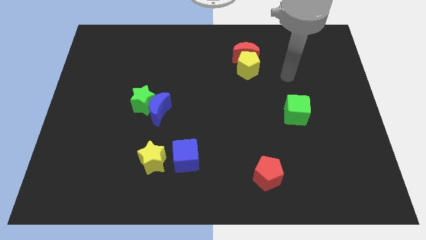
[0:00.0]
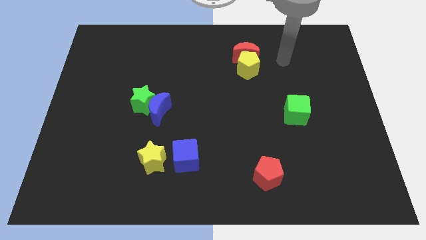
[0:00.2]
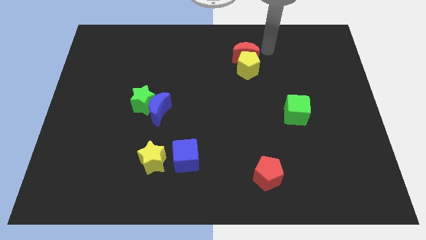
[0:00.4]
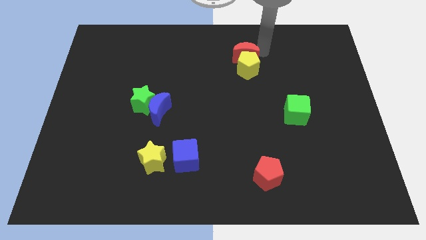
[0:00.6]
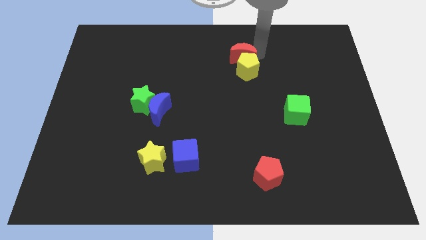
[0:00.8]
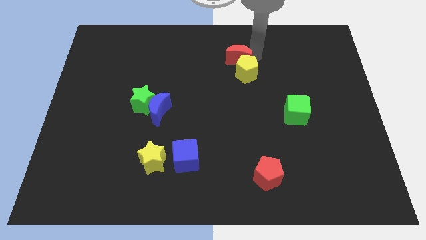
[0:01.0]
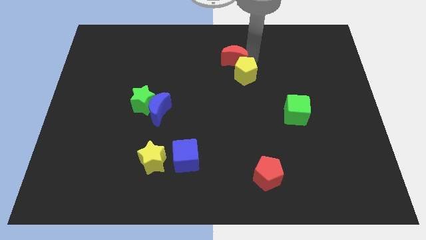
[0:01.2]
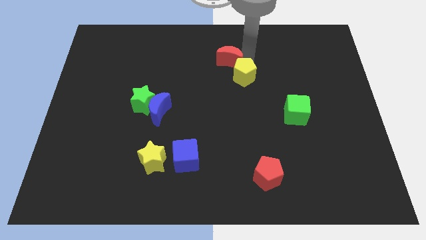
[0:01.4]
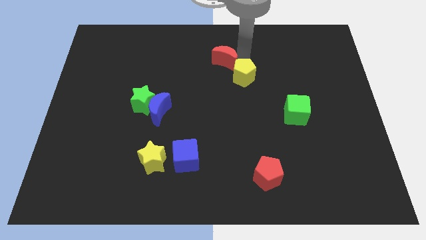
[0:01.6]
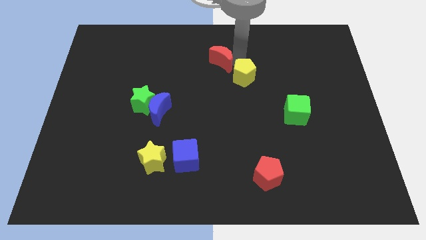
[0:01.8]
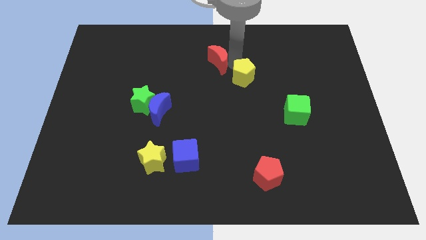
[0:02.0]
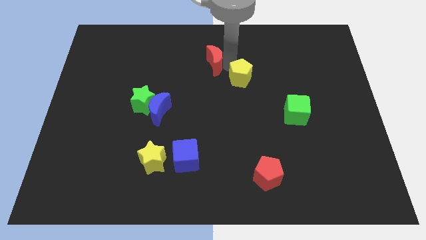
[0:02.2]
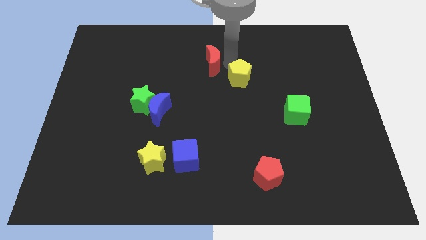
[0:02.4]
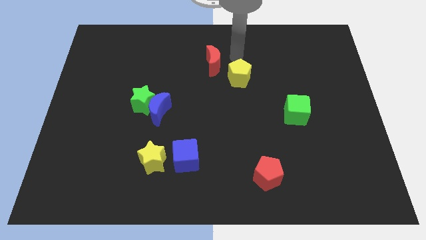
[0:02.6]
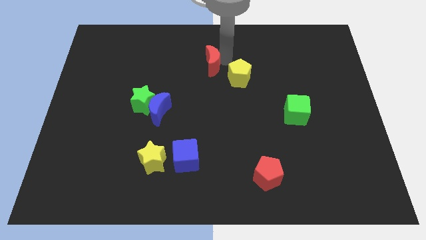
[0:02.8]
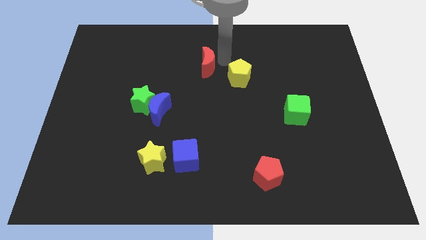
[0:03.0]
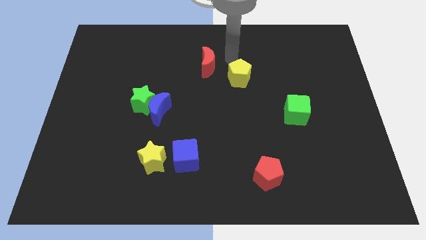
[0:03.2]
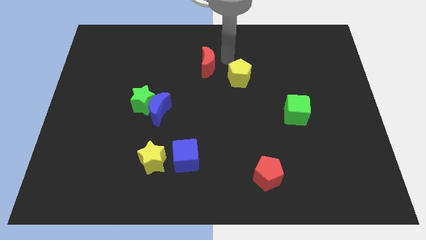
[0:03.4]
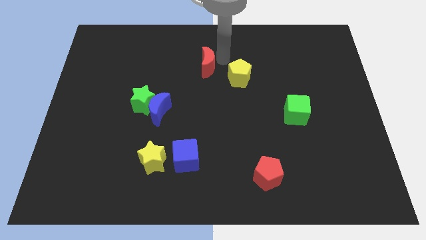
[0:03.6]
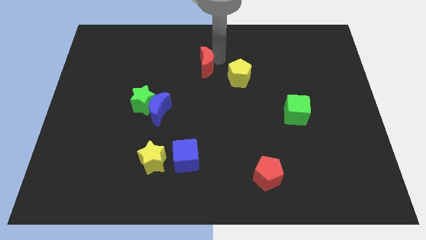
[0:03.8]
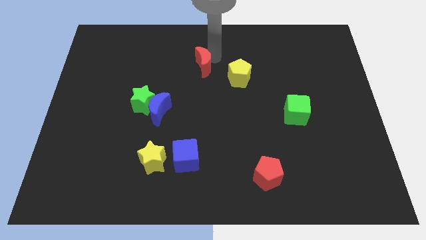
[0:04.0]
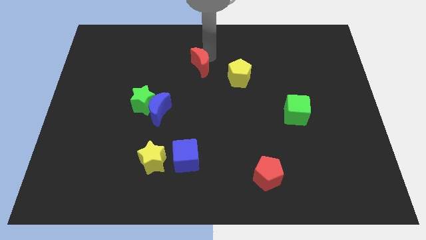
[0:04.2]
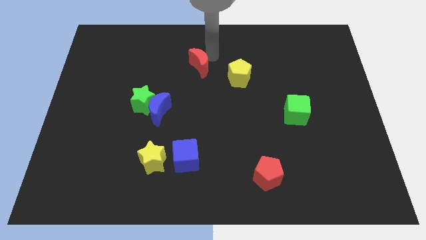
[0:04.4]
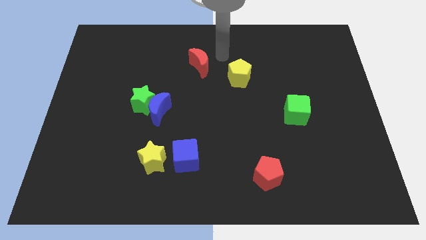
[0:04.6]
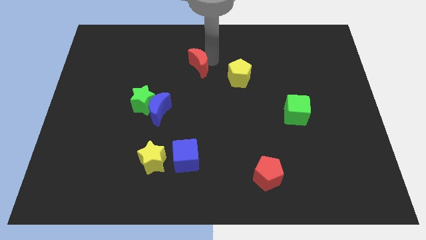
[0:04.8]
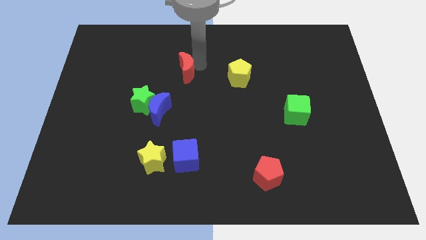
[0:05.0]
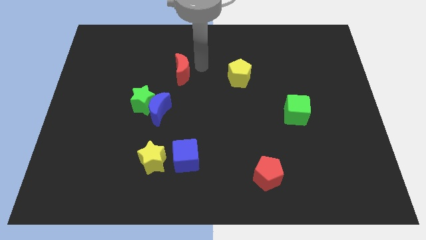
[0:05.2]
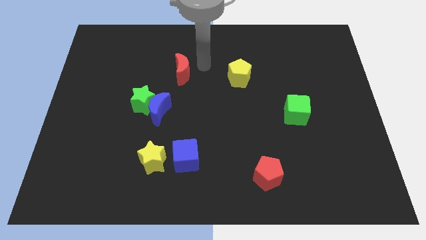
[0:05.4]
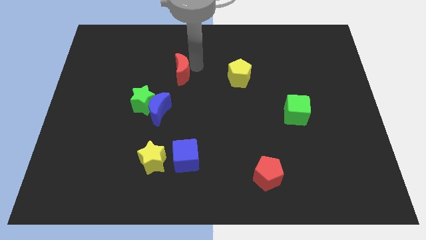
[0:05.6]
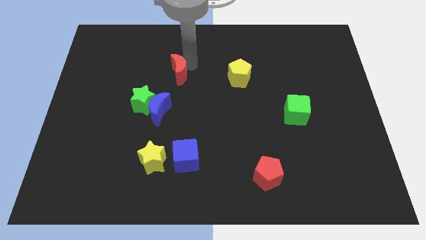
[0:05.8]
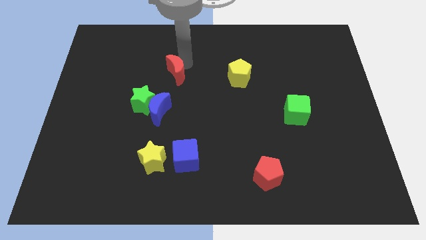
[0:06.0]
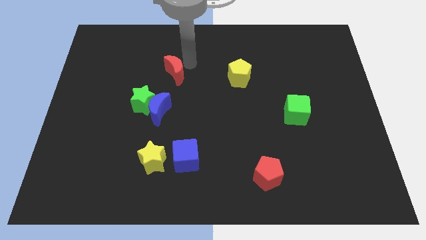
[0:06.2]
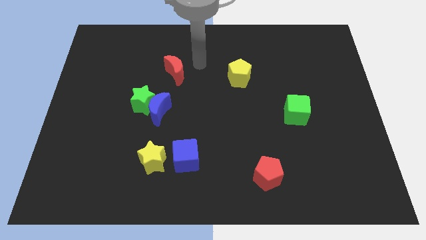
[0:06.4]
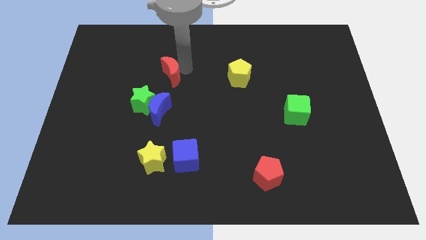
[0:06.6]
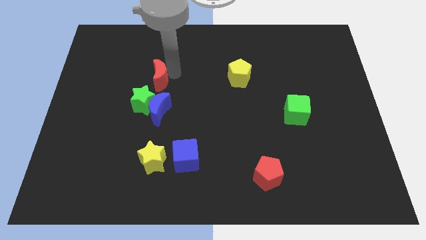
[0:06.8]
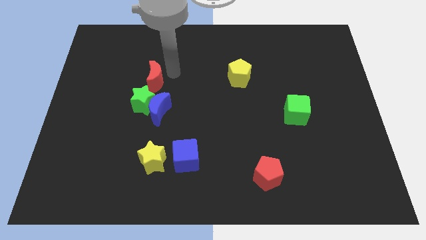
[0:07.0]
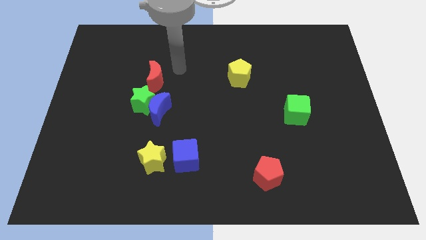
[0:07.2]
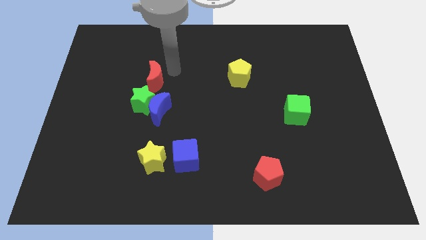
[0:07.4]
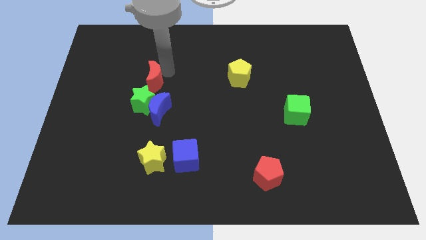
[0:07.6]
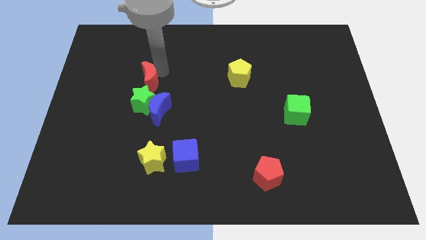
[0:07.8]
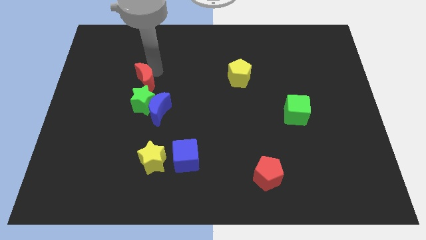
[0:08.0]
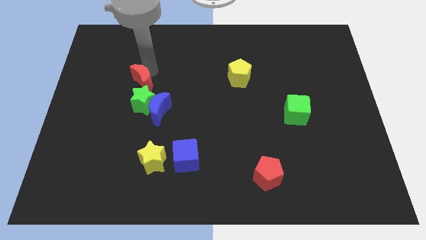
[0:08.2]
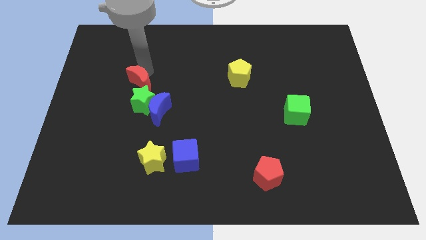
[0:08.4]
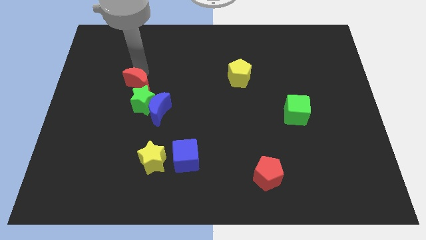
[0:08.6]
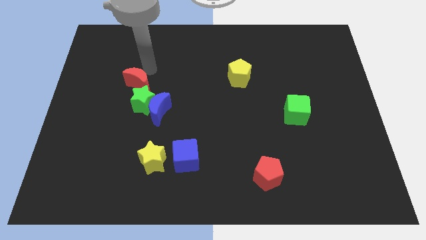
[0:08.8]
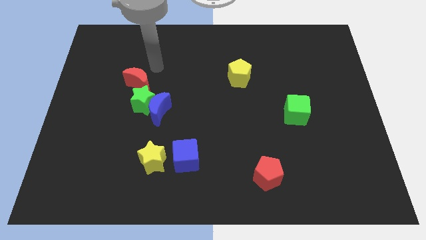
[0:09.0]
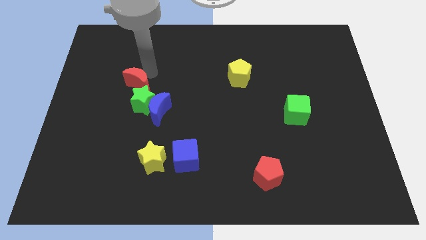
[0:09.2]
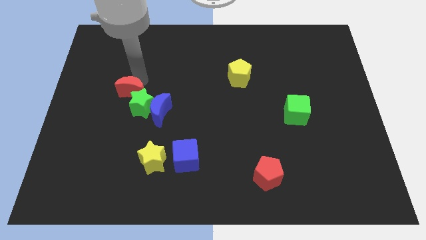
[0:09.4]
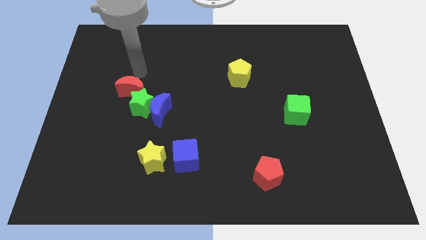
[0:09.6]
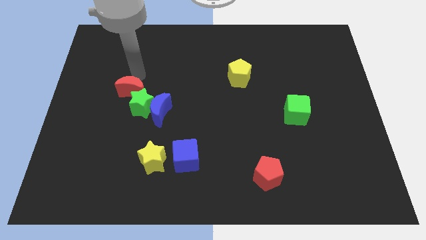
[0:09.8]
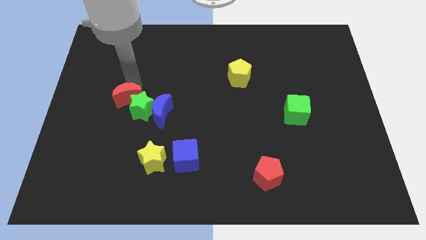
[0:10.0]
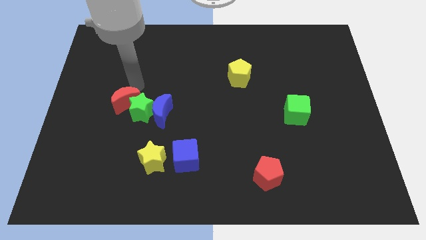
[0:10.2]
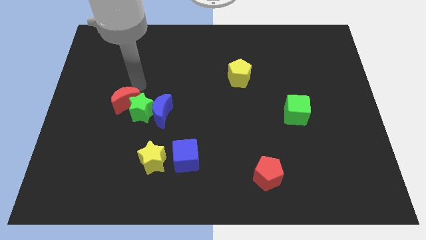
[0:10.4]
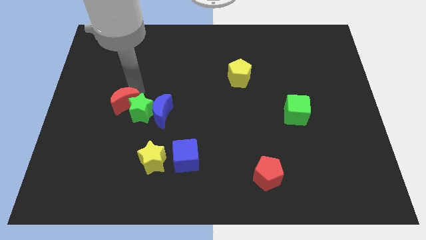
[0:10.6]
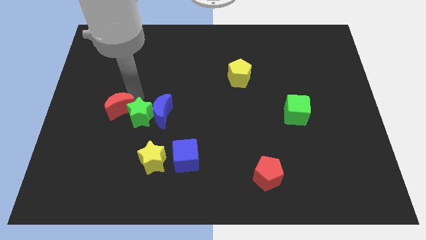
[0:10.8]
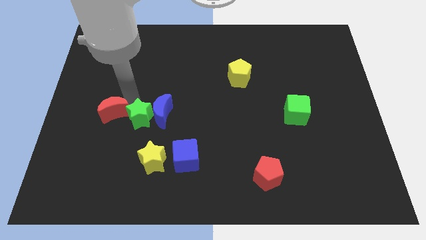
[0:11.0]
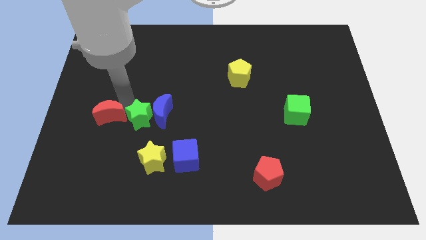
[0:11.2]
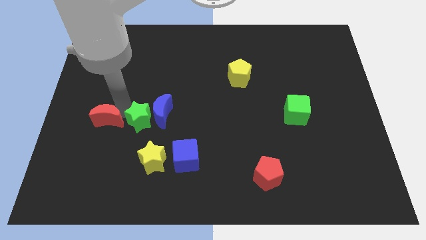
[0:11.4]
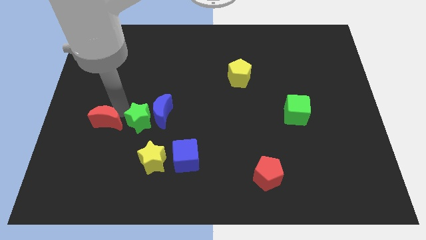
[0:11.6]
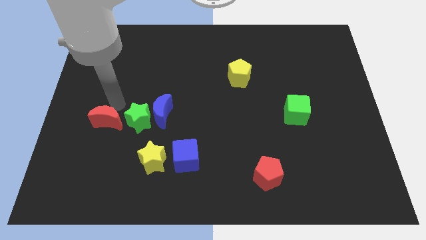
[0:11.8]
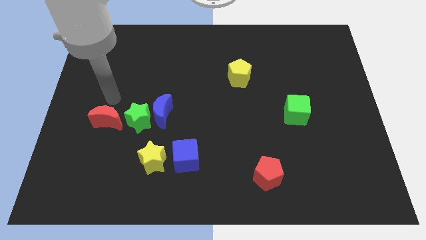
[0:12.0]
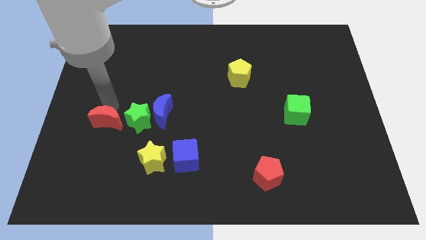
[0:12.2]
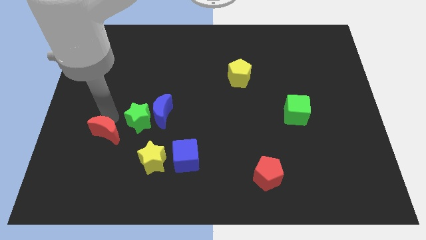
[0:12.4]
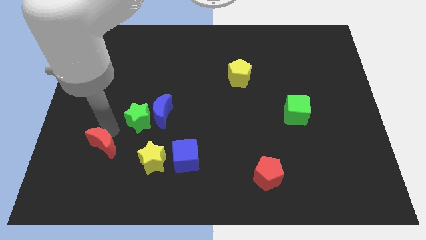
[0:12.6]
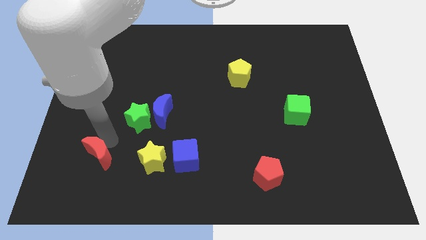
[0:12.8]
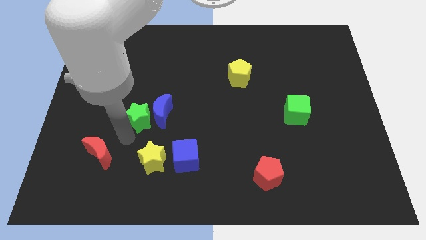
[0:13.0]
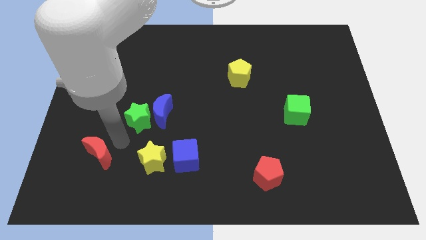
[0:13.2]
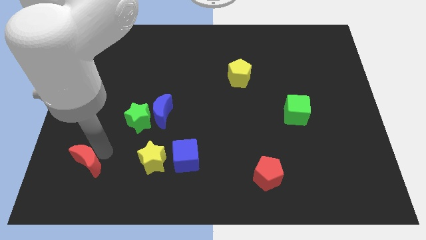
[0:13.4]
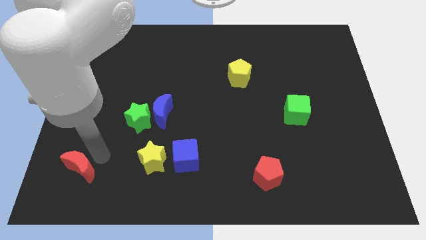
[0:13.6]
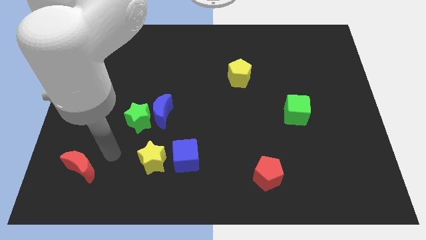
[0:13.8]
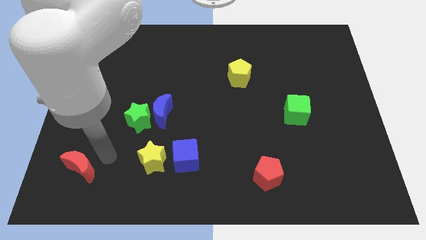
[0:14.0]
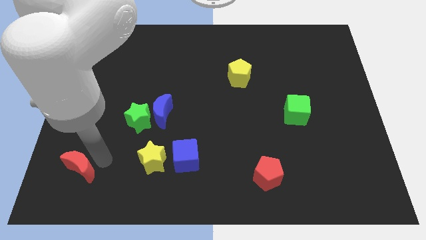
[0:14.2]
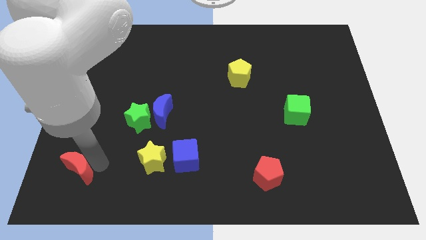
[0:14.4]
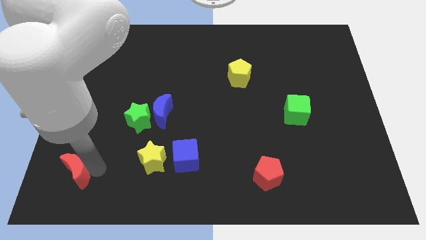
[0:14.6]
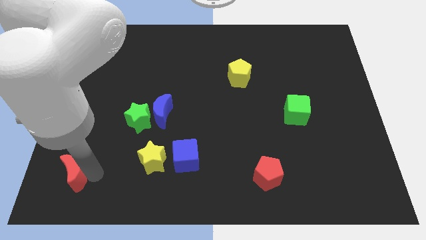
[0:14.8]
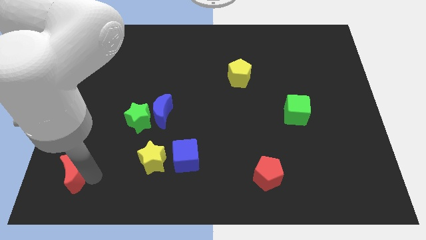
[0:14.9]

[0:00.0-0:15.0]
push the red moon to the lower left corner
